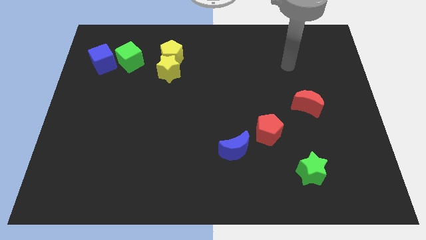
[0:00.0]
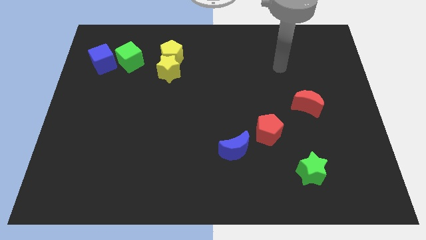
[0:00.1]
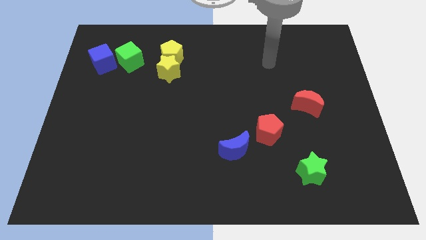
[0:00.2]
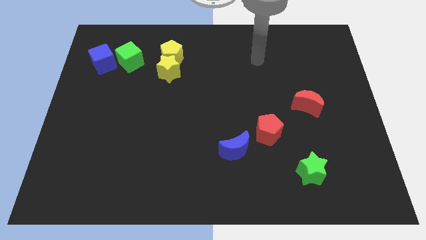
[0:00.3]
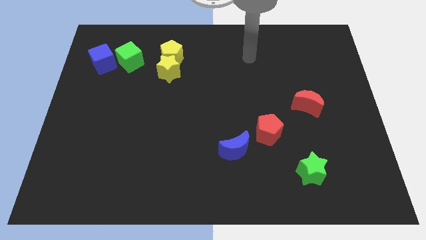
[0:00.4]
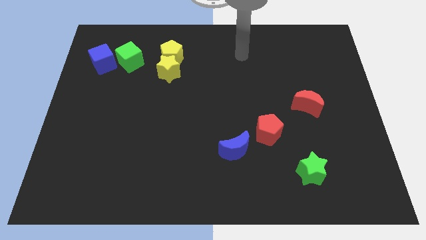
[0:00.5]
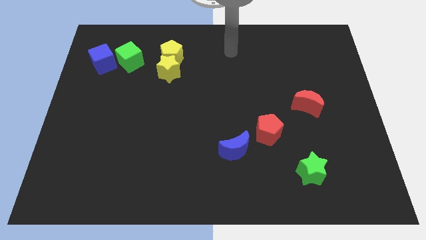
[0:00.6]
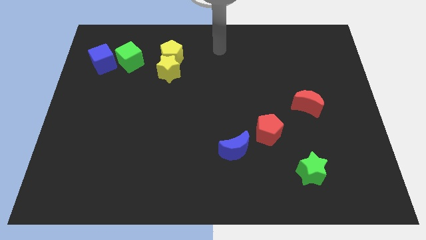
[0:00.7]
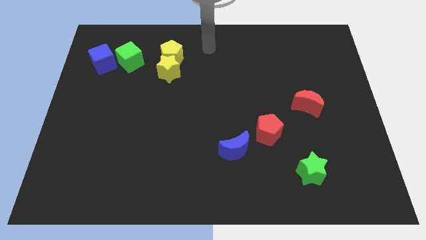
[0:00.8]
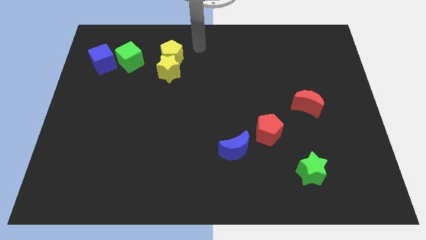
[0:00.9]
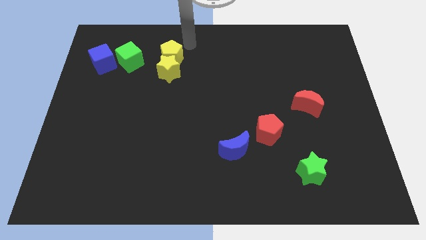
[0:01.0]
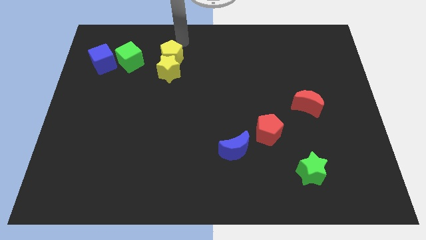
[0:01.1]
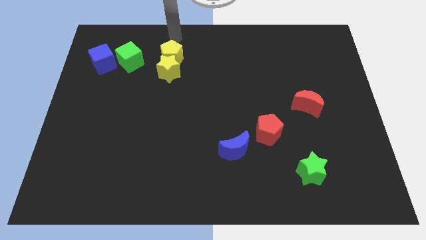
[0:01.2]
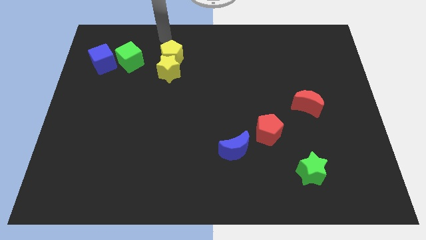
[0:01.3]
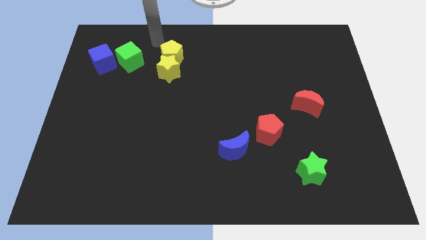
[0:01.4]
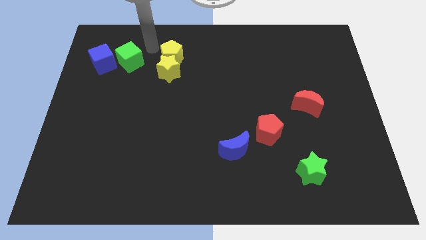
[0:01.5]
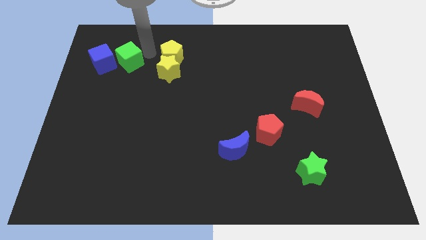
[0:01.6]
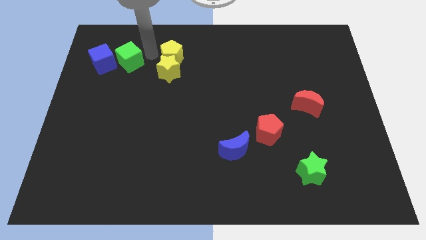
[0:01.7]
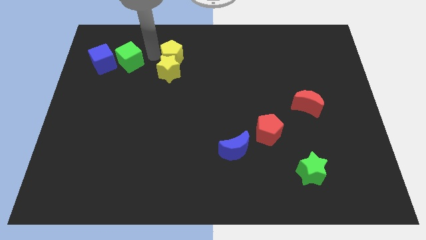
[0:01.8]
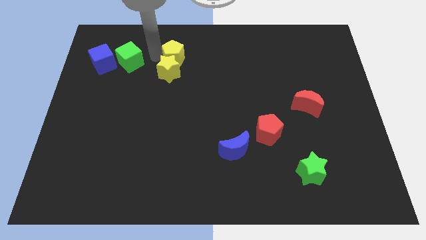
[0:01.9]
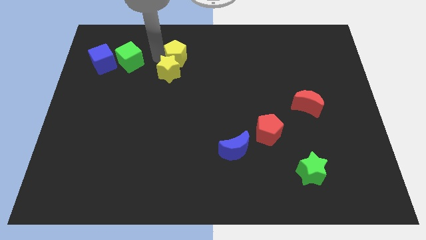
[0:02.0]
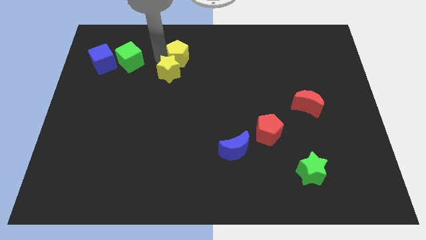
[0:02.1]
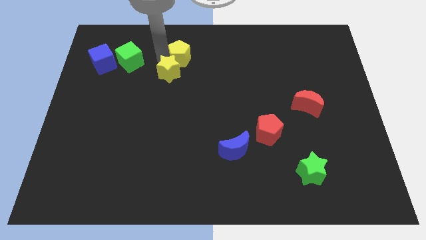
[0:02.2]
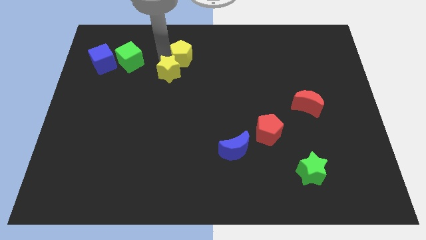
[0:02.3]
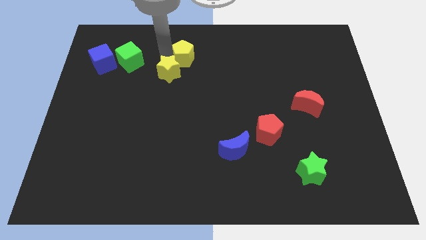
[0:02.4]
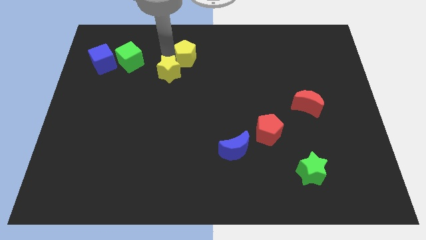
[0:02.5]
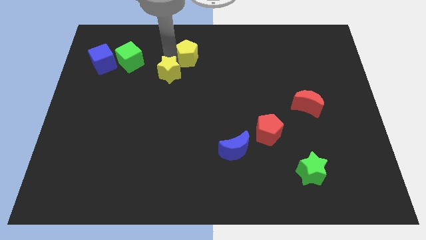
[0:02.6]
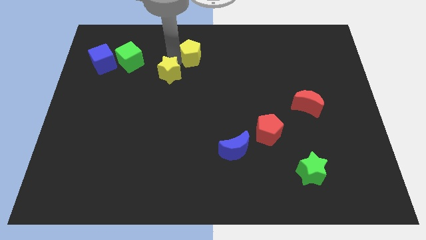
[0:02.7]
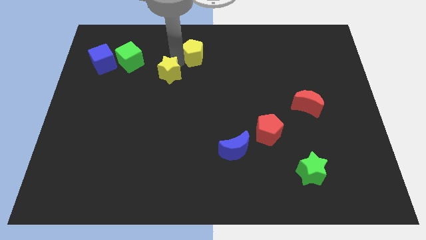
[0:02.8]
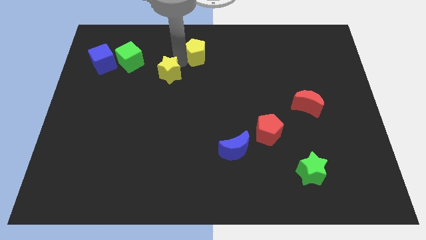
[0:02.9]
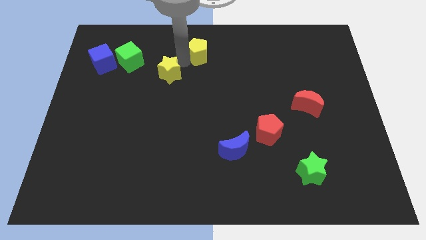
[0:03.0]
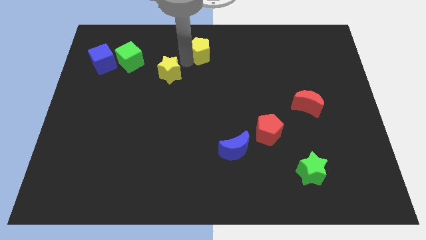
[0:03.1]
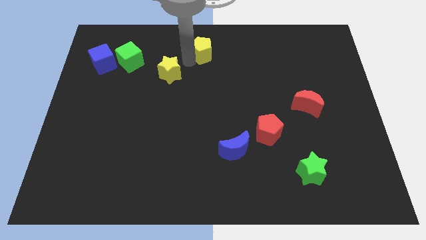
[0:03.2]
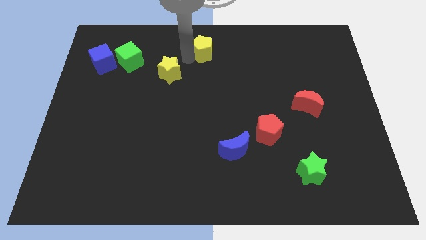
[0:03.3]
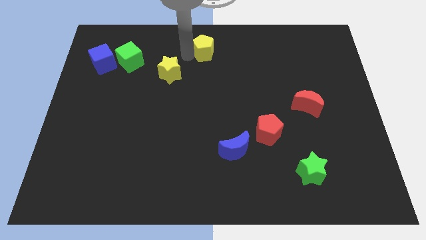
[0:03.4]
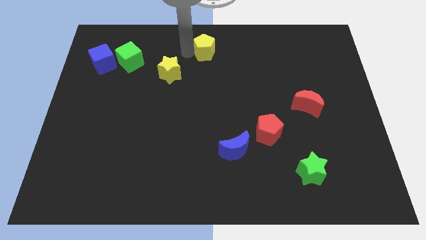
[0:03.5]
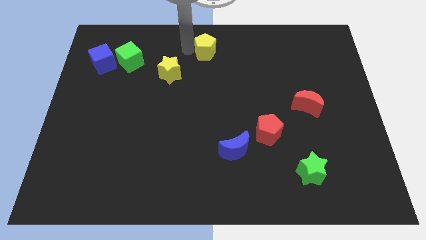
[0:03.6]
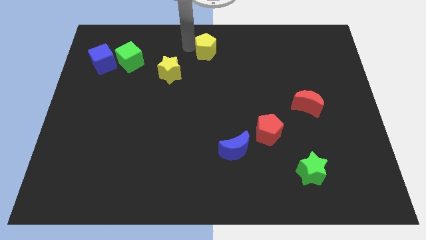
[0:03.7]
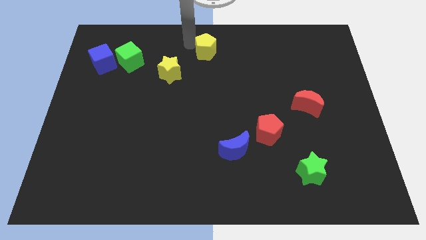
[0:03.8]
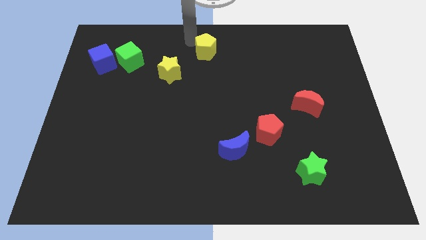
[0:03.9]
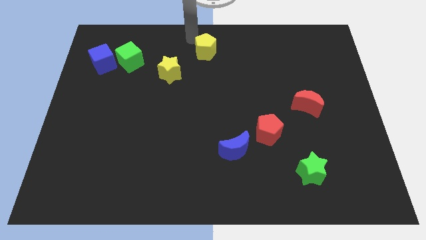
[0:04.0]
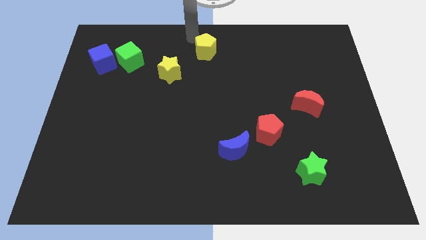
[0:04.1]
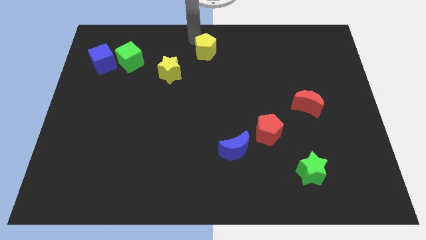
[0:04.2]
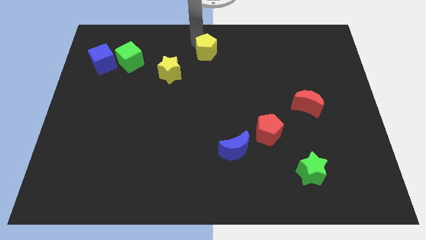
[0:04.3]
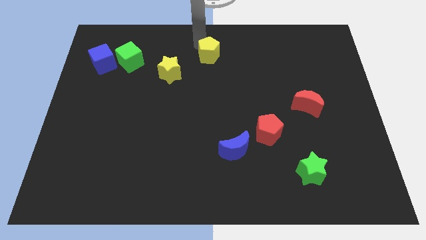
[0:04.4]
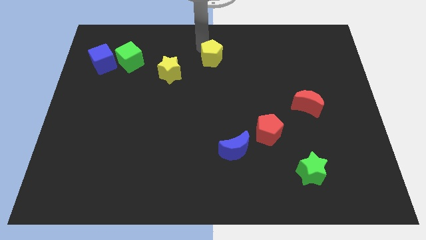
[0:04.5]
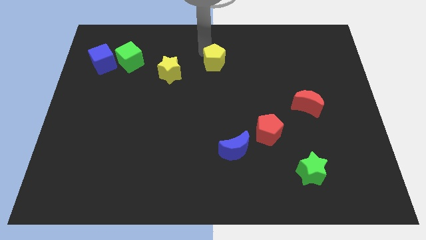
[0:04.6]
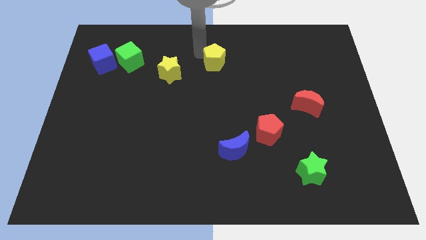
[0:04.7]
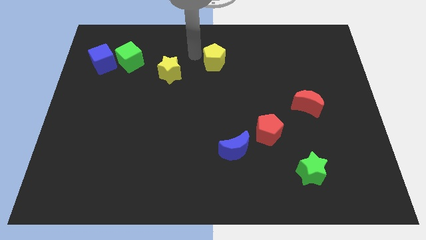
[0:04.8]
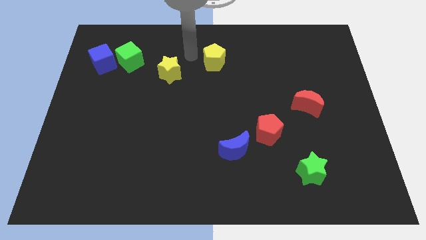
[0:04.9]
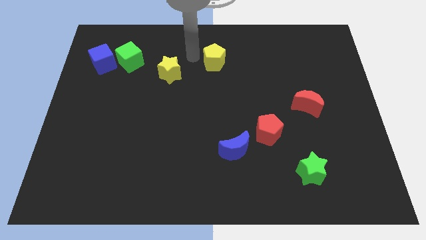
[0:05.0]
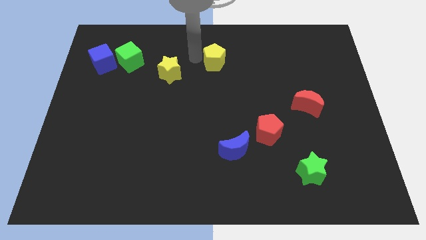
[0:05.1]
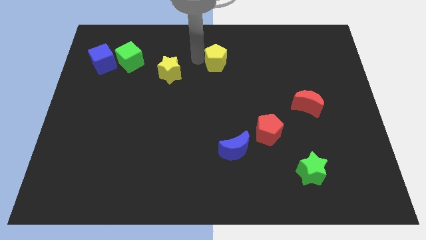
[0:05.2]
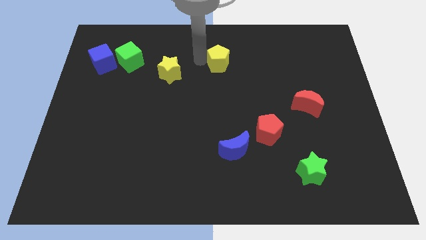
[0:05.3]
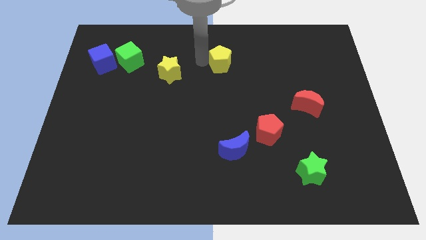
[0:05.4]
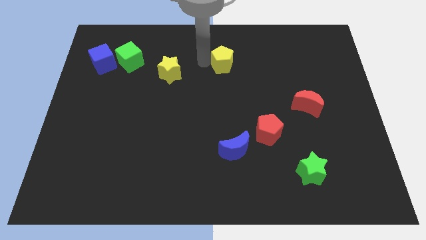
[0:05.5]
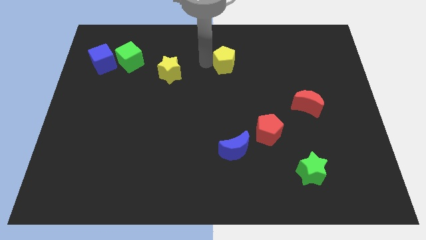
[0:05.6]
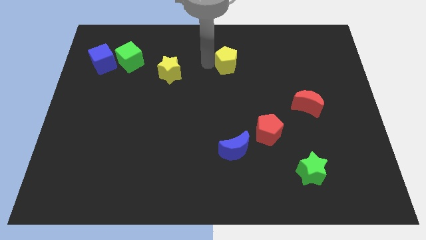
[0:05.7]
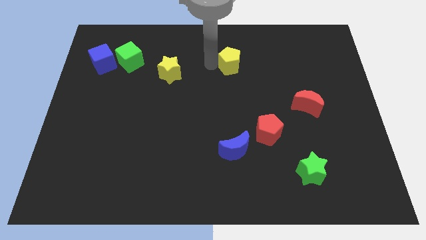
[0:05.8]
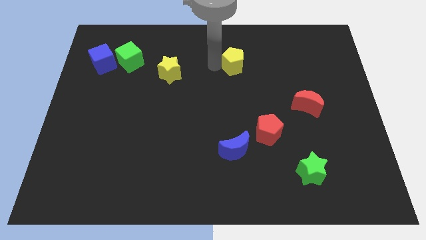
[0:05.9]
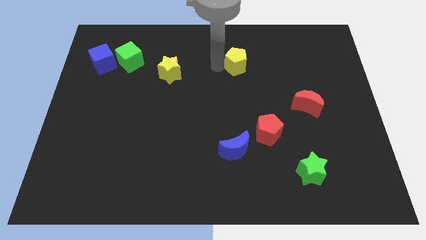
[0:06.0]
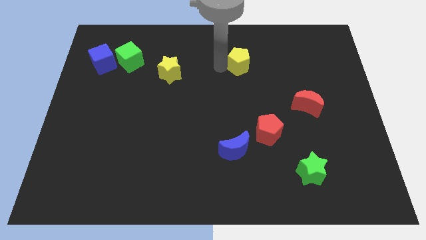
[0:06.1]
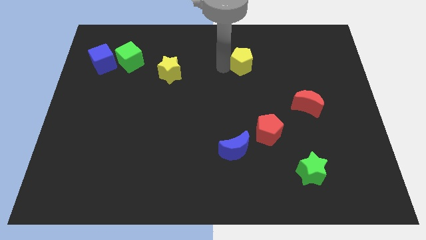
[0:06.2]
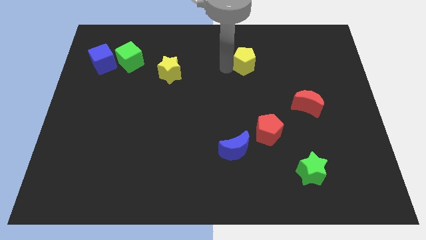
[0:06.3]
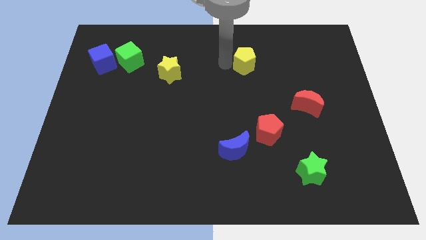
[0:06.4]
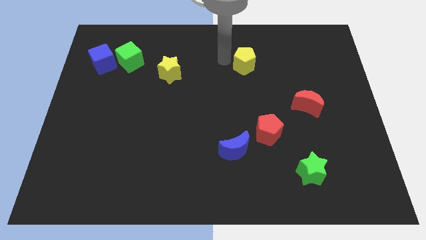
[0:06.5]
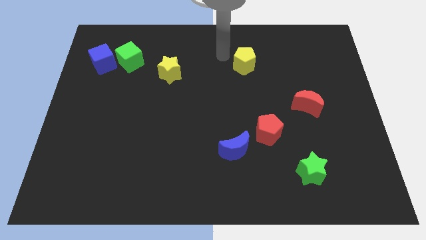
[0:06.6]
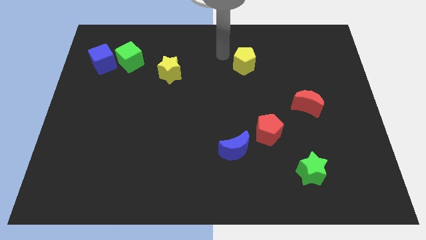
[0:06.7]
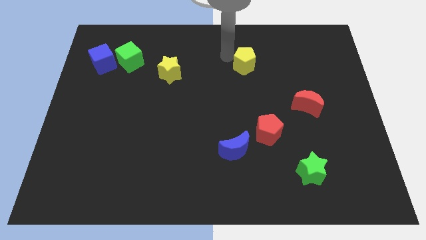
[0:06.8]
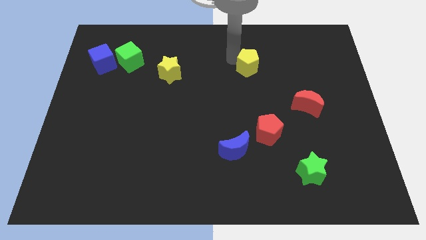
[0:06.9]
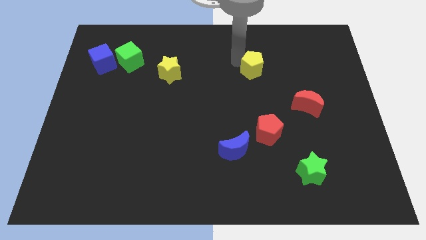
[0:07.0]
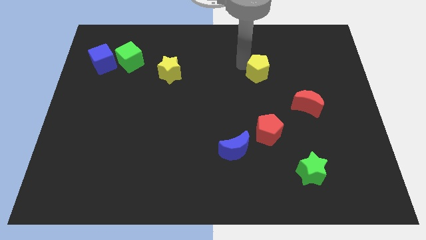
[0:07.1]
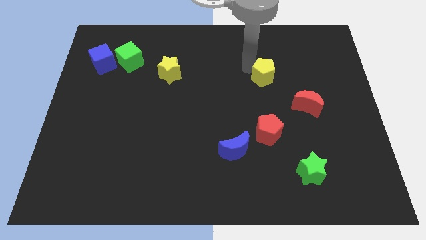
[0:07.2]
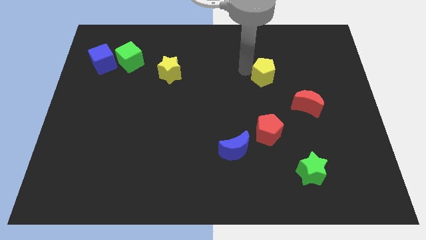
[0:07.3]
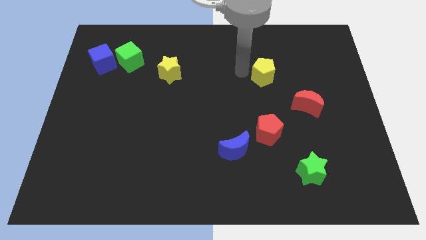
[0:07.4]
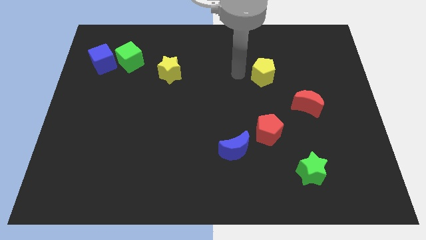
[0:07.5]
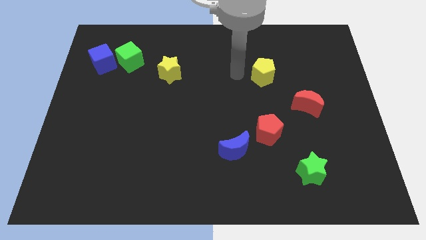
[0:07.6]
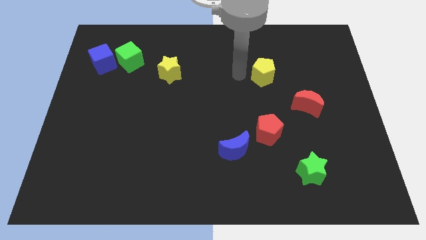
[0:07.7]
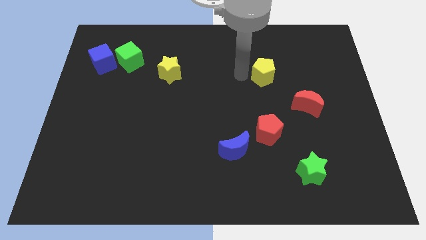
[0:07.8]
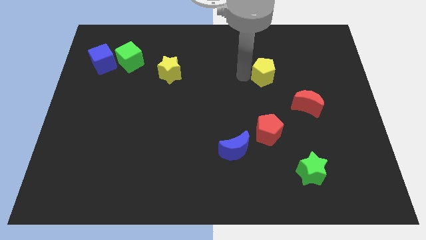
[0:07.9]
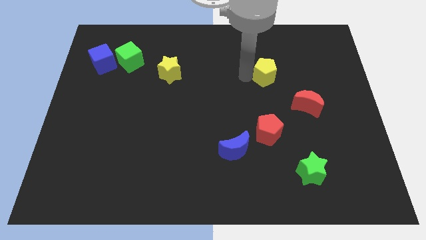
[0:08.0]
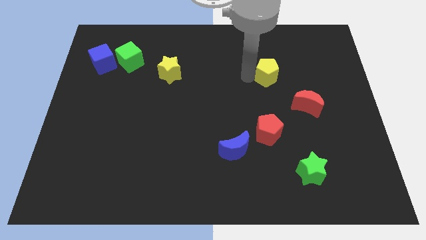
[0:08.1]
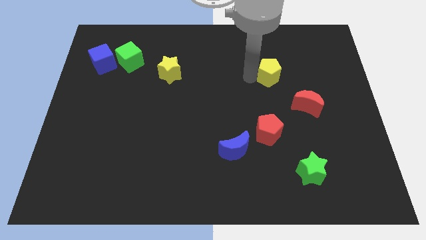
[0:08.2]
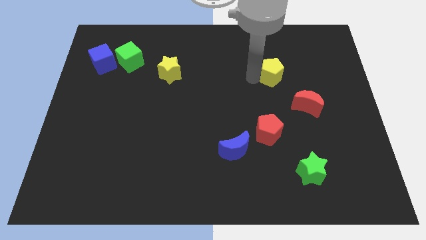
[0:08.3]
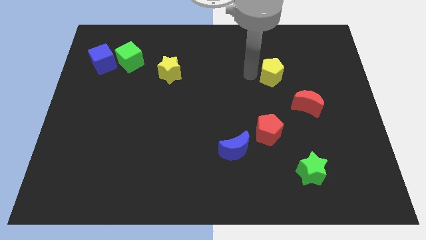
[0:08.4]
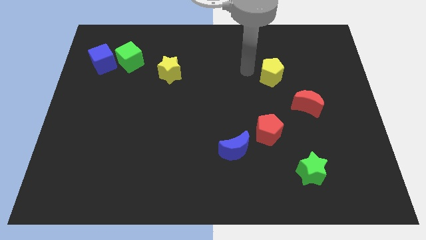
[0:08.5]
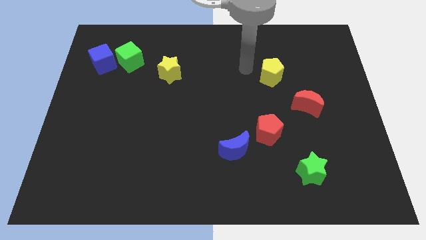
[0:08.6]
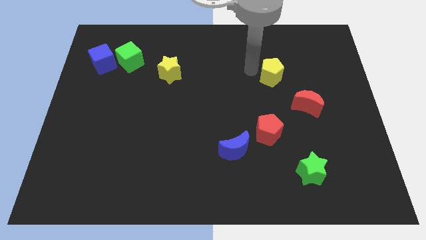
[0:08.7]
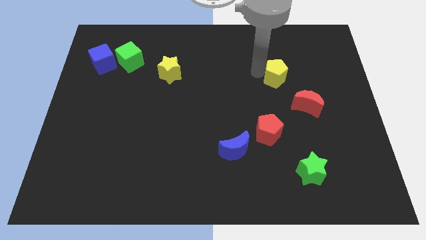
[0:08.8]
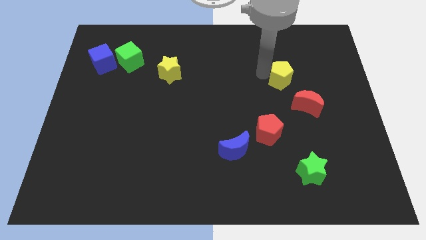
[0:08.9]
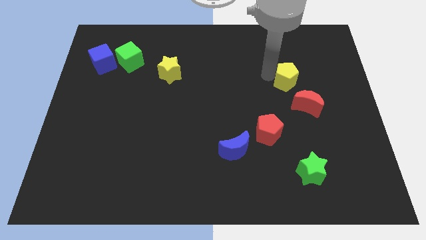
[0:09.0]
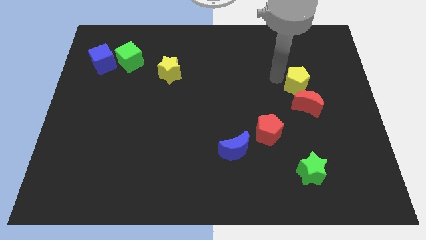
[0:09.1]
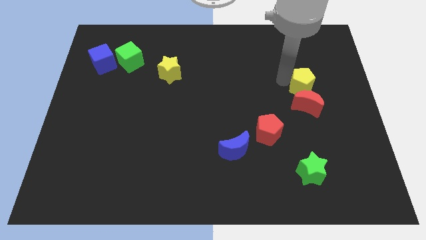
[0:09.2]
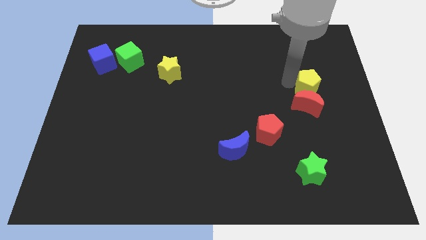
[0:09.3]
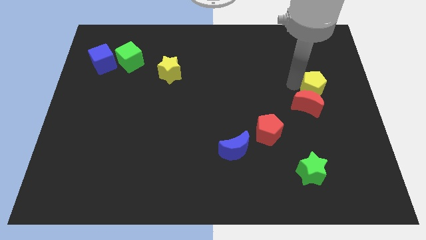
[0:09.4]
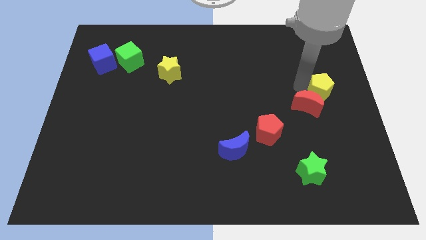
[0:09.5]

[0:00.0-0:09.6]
slide the yellow pentagon to the right side
